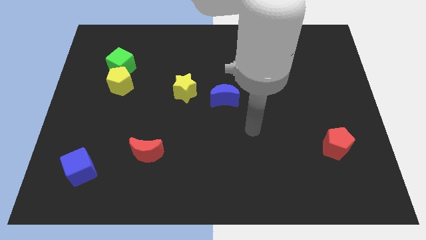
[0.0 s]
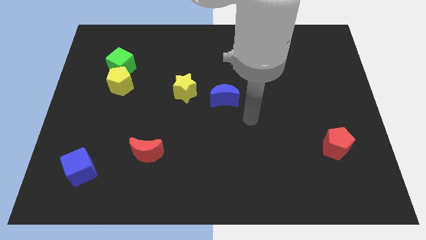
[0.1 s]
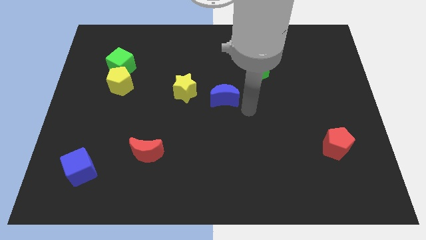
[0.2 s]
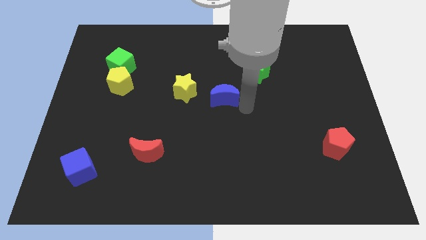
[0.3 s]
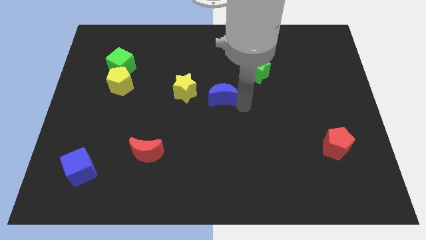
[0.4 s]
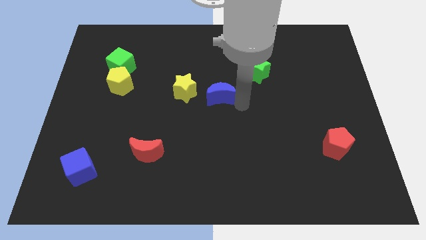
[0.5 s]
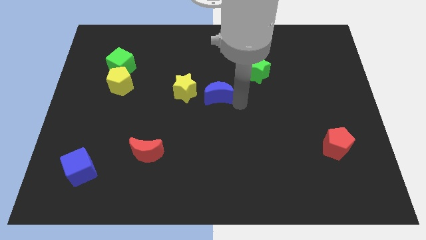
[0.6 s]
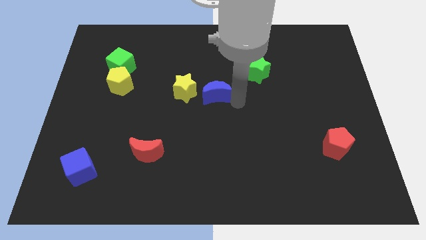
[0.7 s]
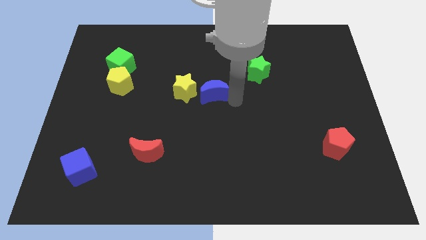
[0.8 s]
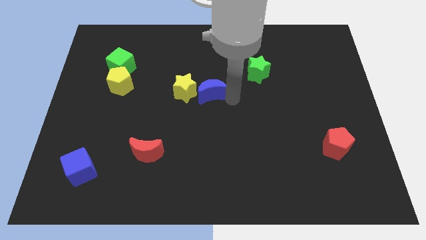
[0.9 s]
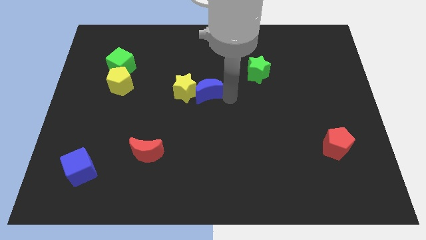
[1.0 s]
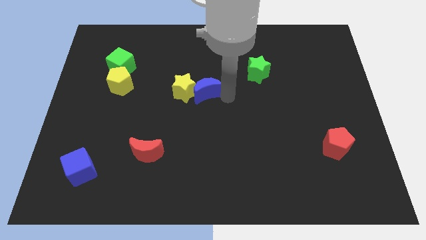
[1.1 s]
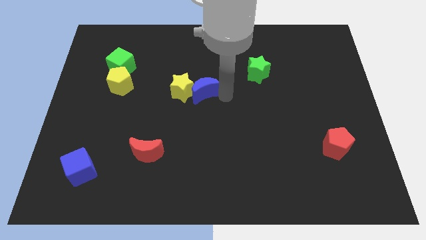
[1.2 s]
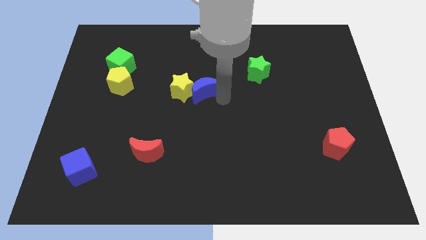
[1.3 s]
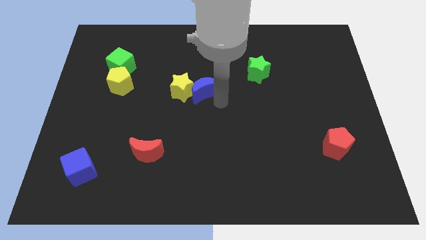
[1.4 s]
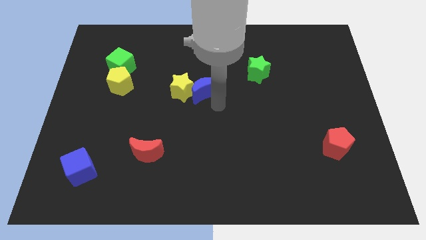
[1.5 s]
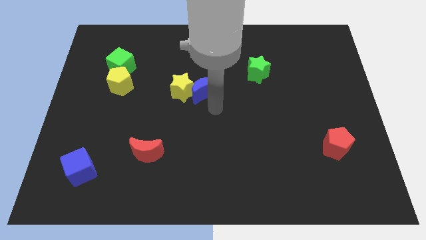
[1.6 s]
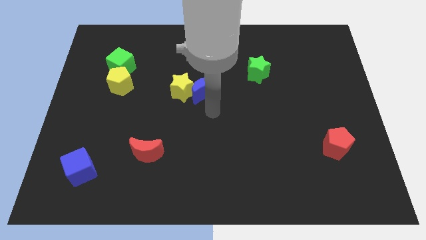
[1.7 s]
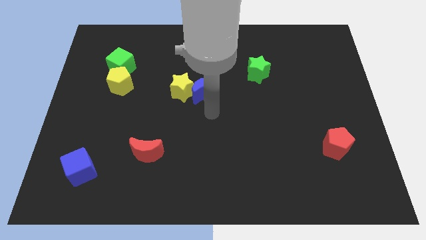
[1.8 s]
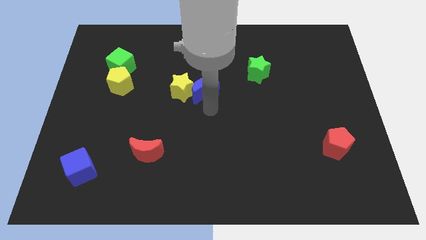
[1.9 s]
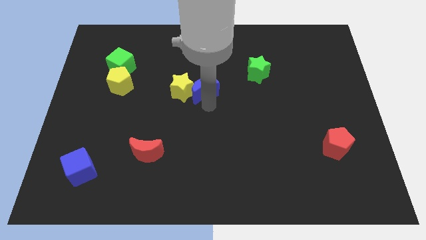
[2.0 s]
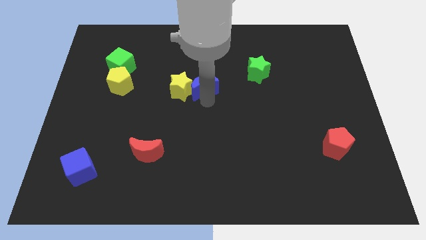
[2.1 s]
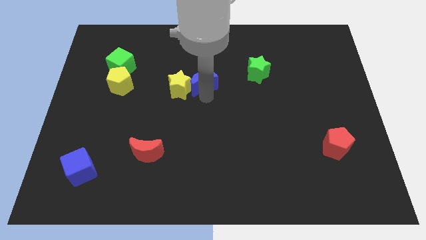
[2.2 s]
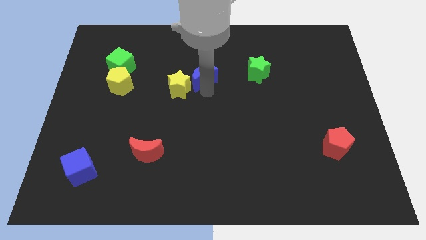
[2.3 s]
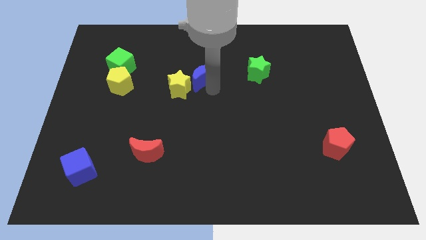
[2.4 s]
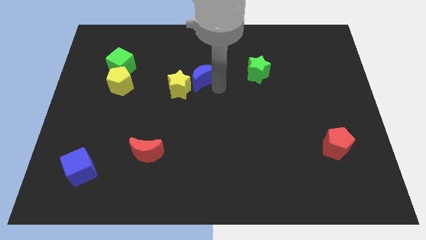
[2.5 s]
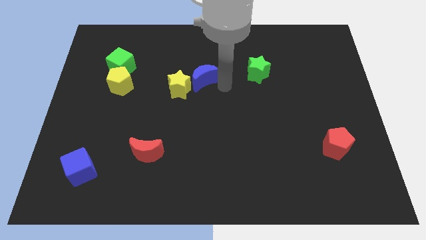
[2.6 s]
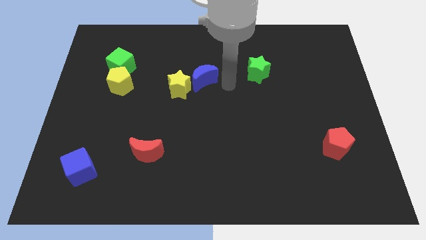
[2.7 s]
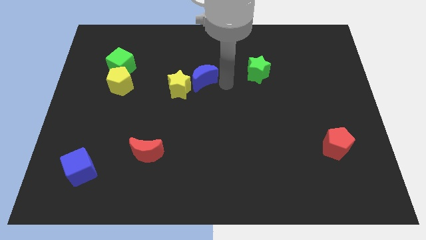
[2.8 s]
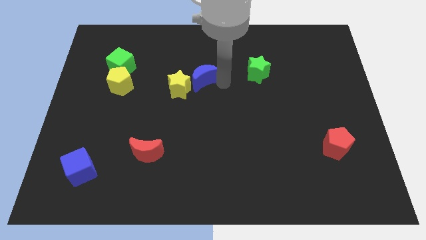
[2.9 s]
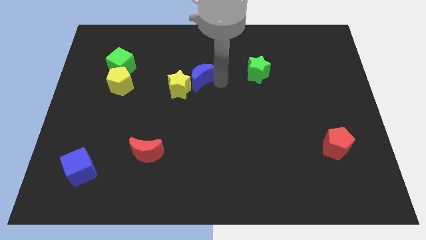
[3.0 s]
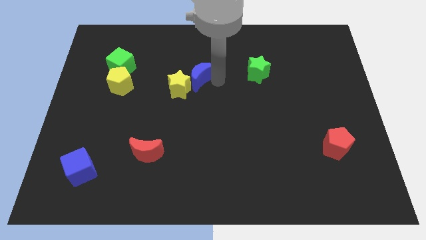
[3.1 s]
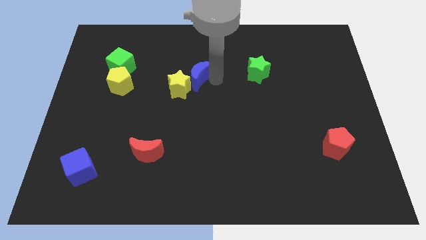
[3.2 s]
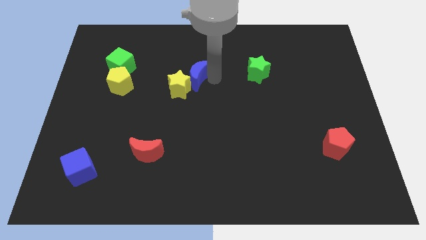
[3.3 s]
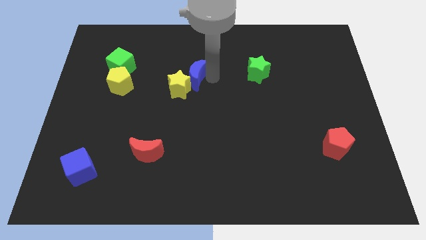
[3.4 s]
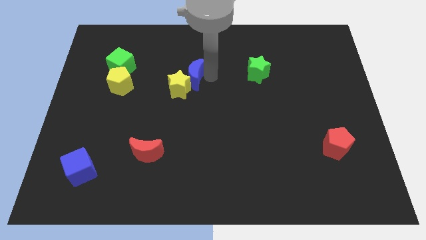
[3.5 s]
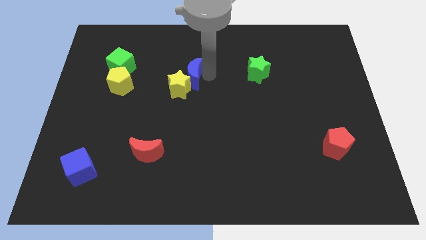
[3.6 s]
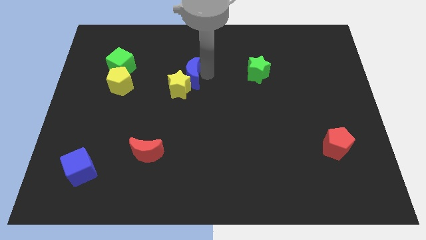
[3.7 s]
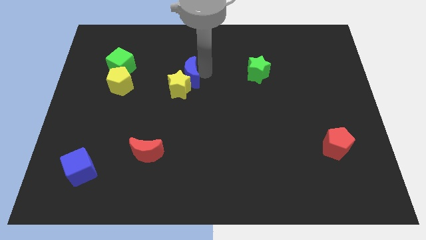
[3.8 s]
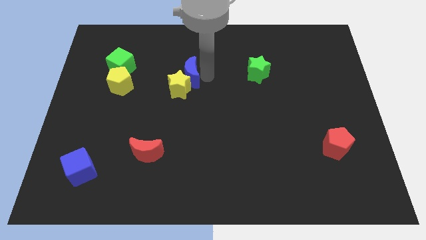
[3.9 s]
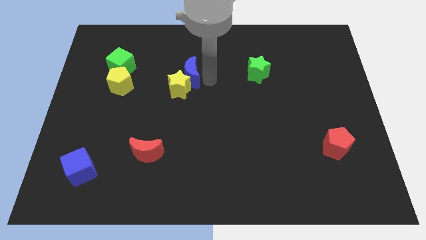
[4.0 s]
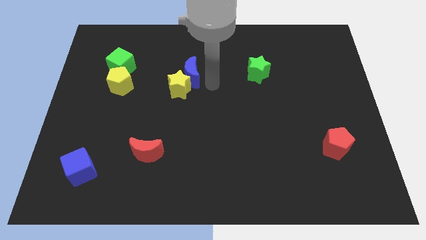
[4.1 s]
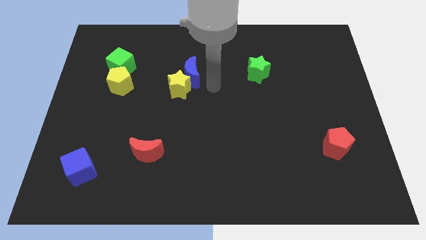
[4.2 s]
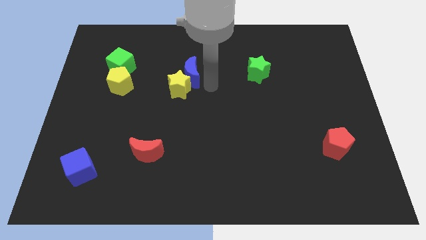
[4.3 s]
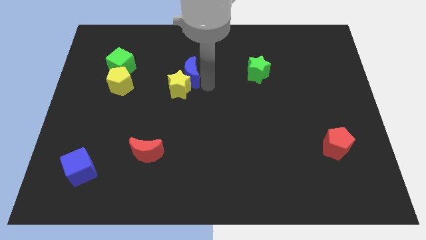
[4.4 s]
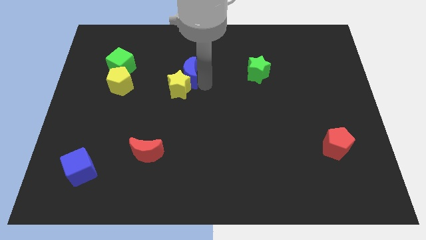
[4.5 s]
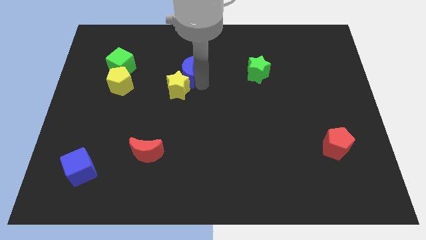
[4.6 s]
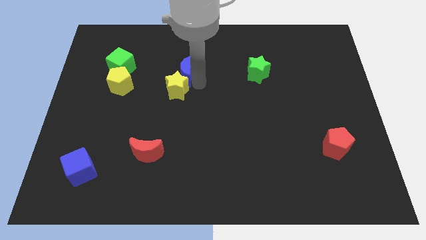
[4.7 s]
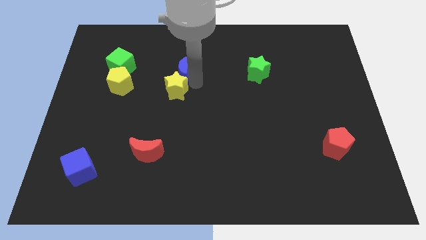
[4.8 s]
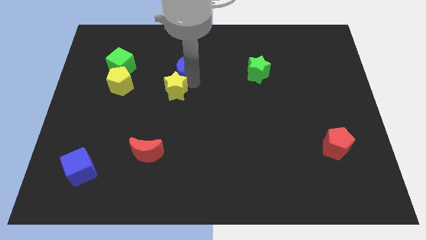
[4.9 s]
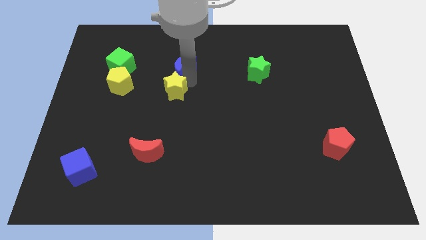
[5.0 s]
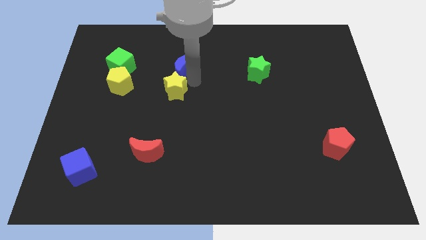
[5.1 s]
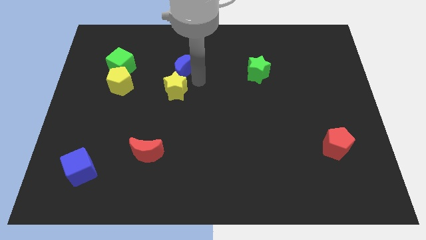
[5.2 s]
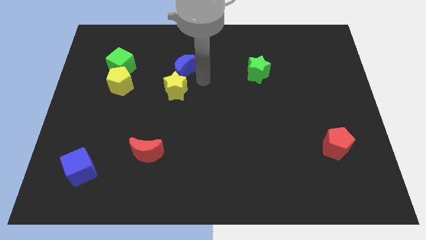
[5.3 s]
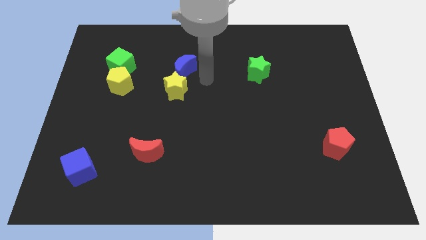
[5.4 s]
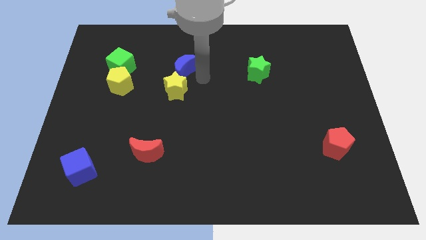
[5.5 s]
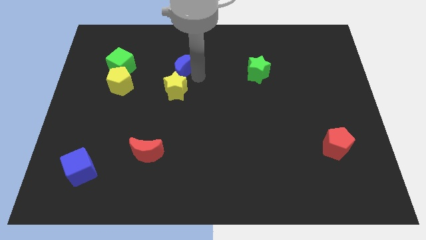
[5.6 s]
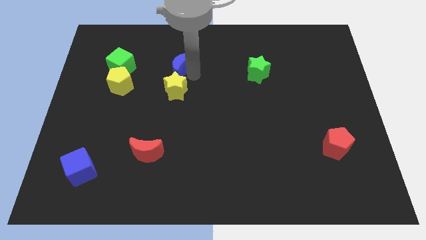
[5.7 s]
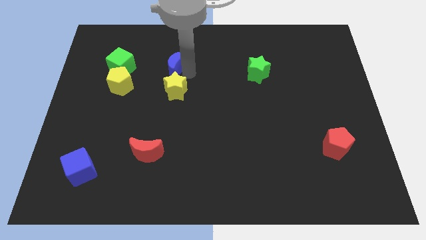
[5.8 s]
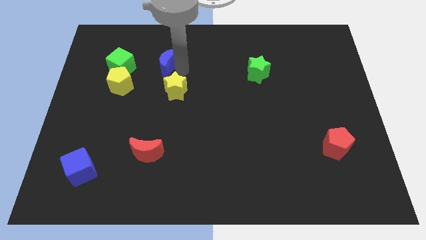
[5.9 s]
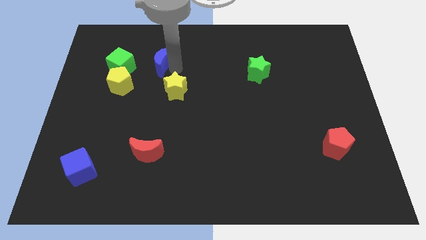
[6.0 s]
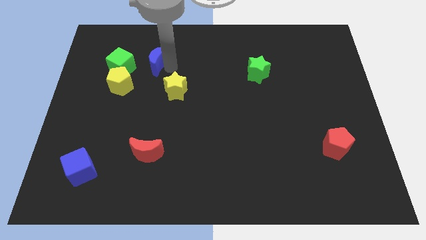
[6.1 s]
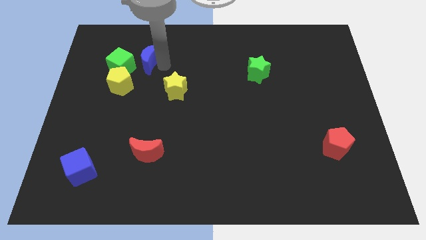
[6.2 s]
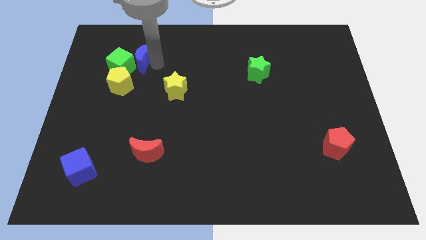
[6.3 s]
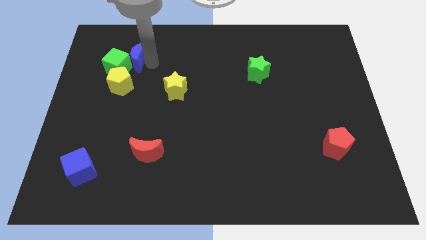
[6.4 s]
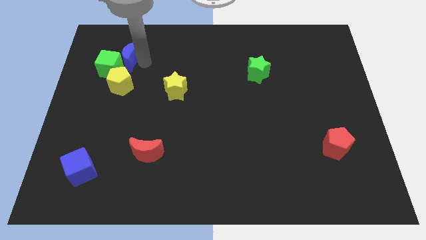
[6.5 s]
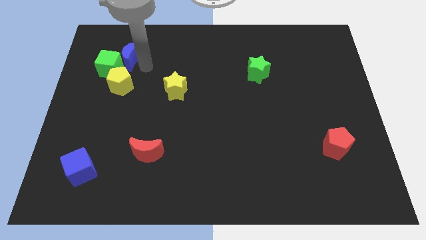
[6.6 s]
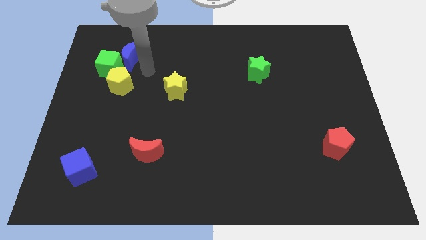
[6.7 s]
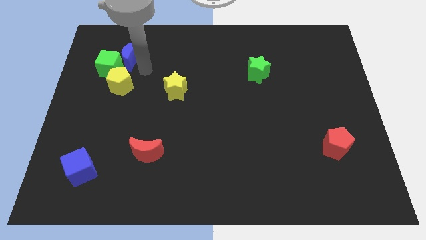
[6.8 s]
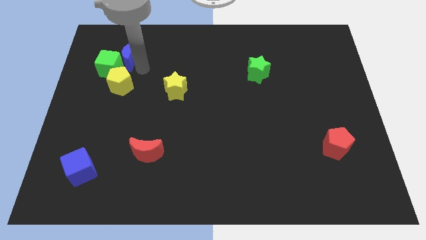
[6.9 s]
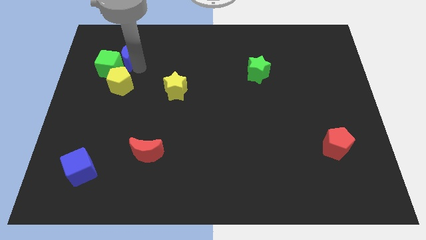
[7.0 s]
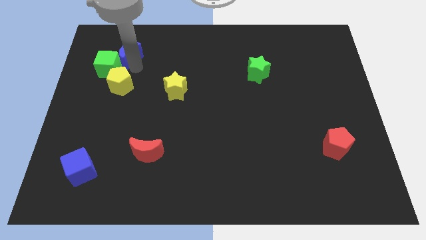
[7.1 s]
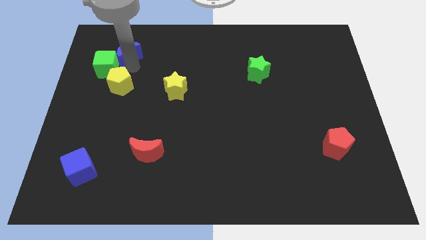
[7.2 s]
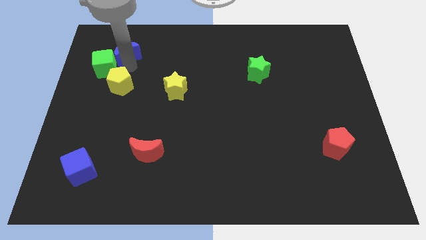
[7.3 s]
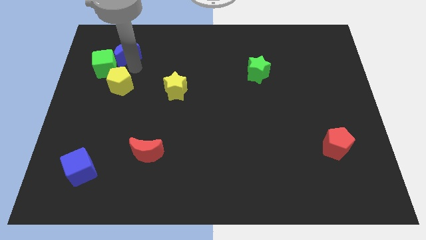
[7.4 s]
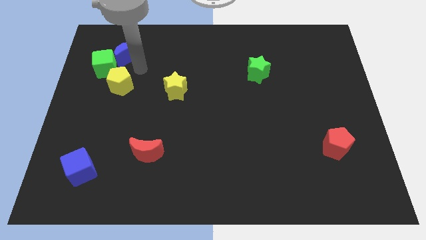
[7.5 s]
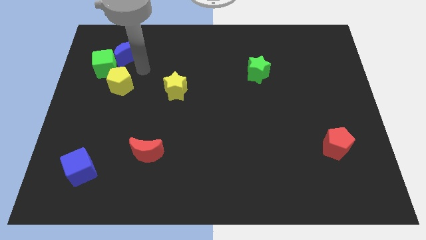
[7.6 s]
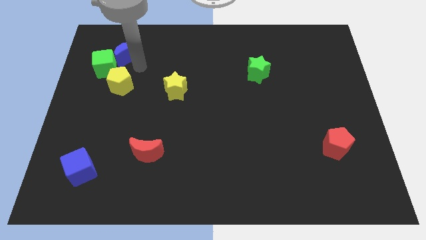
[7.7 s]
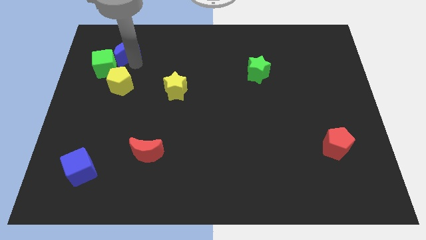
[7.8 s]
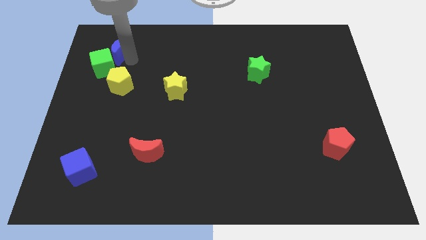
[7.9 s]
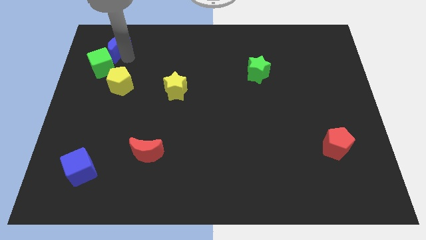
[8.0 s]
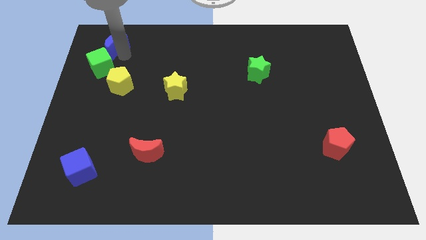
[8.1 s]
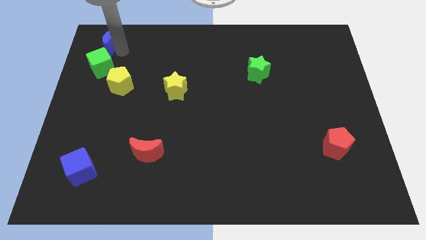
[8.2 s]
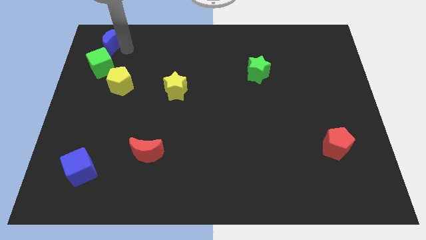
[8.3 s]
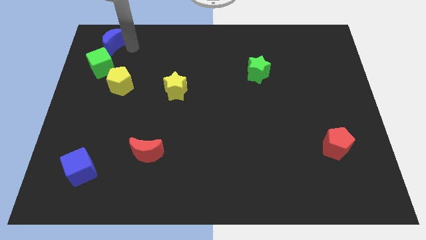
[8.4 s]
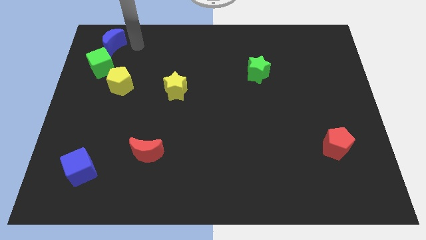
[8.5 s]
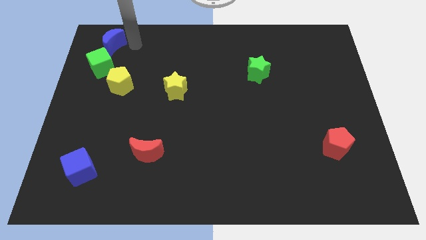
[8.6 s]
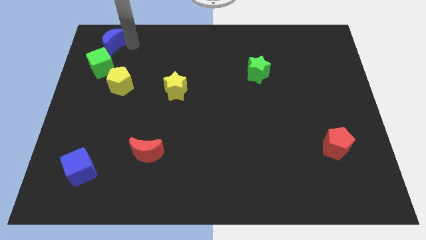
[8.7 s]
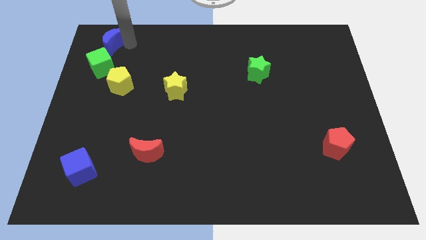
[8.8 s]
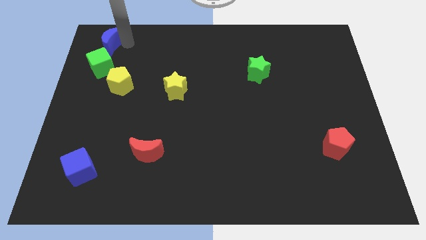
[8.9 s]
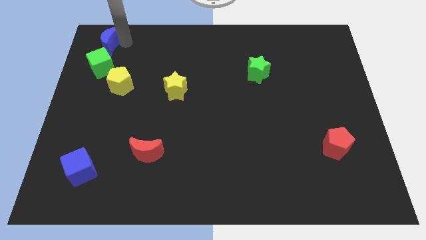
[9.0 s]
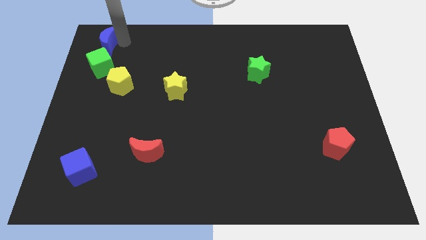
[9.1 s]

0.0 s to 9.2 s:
slide the blue moon to the top left of the board
